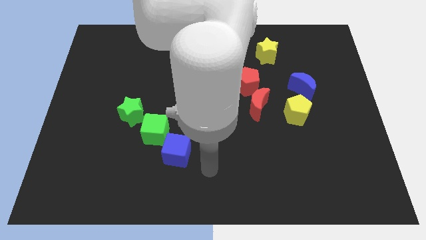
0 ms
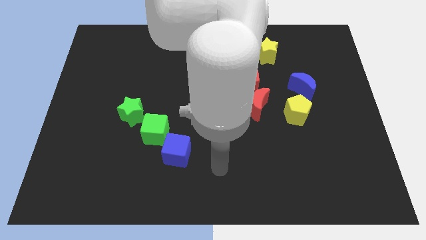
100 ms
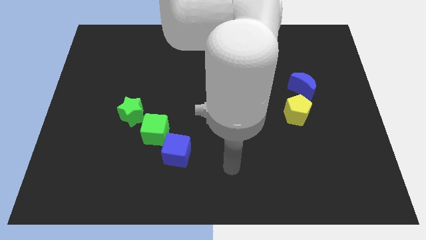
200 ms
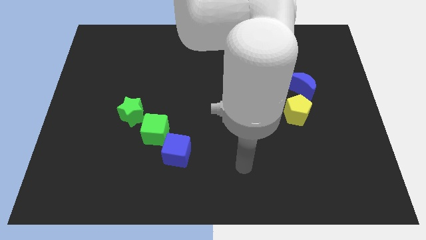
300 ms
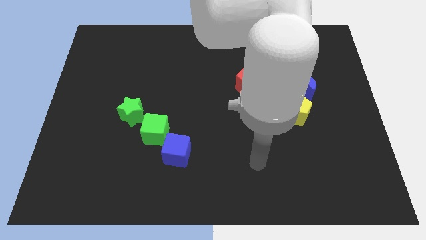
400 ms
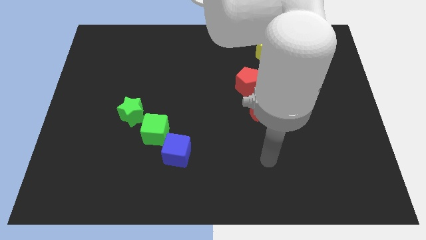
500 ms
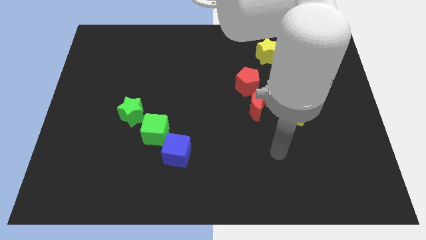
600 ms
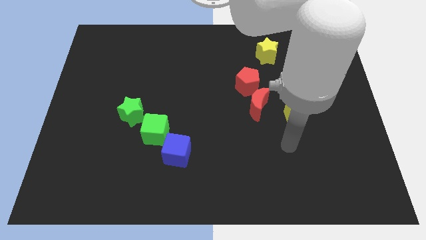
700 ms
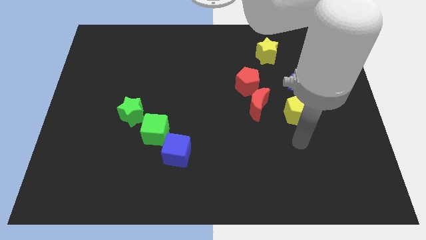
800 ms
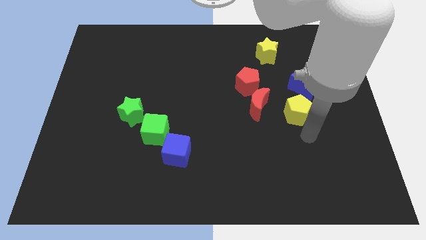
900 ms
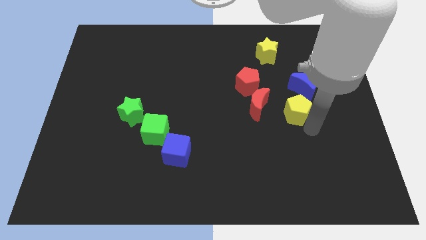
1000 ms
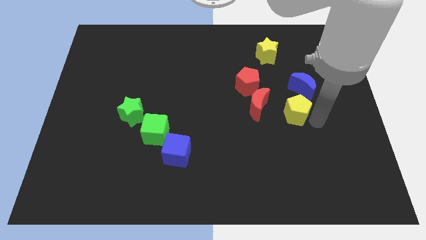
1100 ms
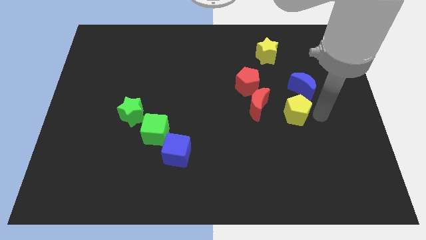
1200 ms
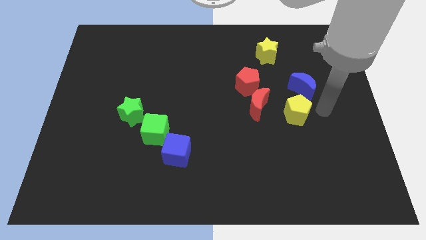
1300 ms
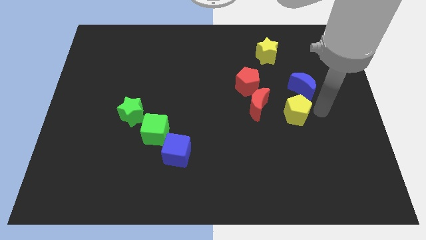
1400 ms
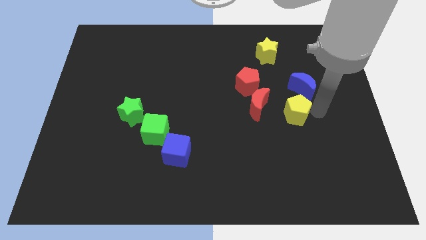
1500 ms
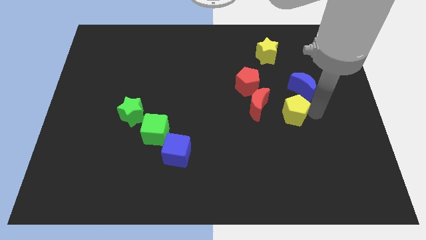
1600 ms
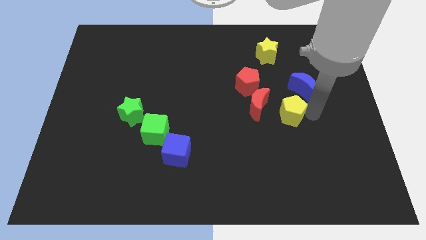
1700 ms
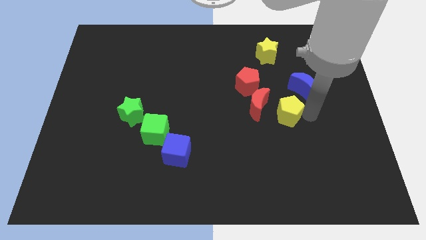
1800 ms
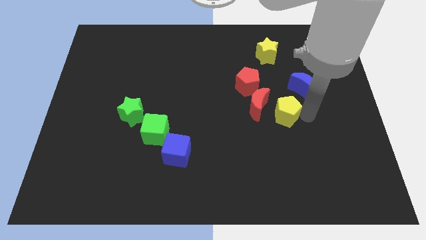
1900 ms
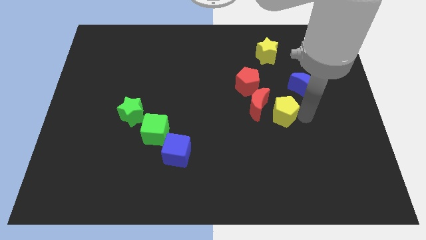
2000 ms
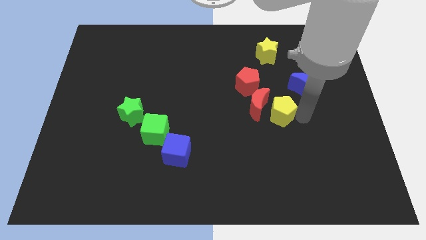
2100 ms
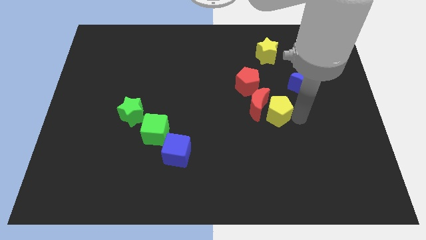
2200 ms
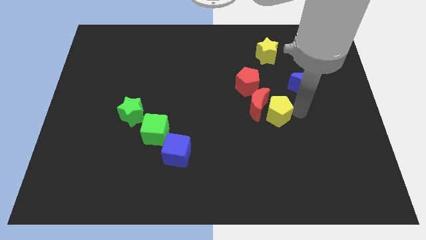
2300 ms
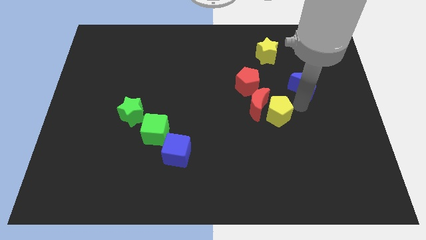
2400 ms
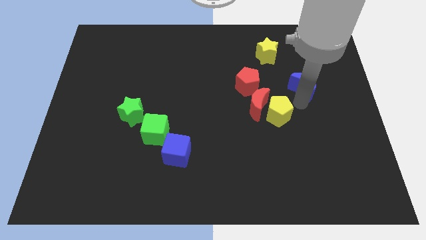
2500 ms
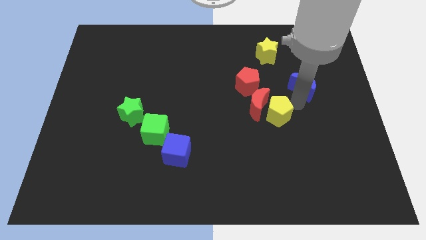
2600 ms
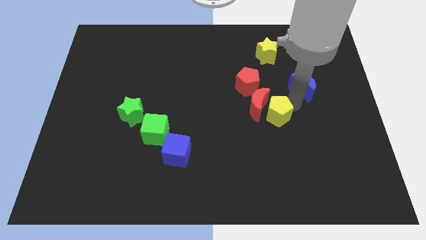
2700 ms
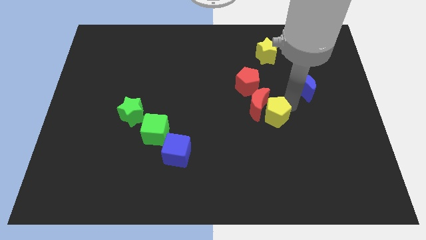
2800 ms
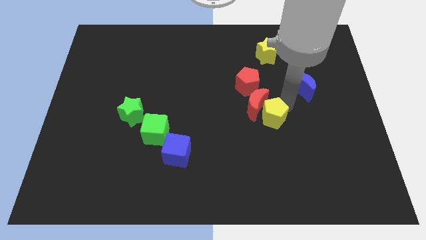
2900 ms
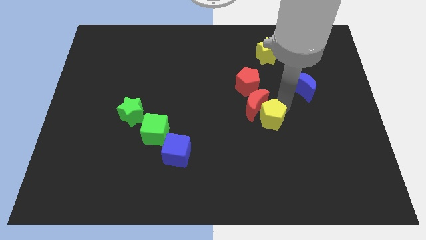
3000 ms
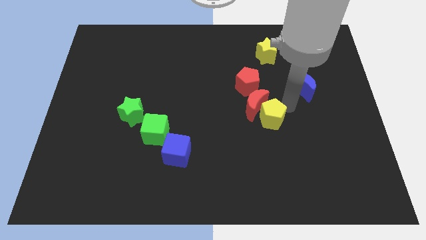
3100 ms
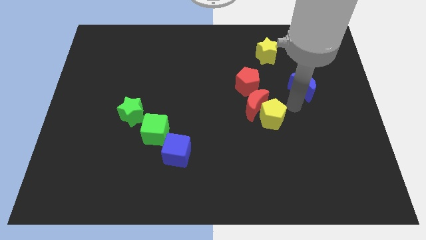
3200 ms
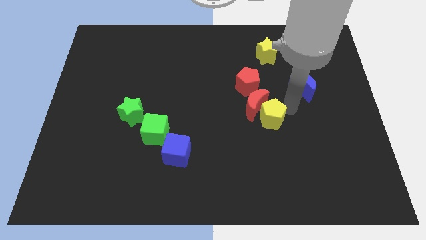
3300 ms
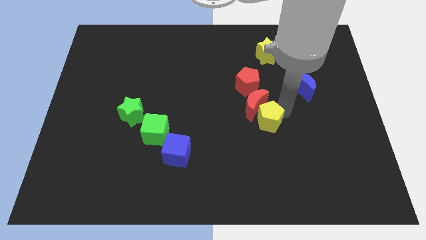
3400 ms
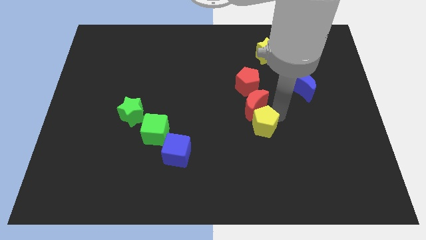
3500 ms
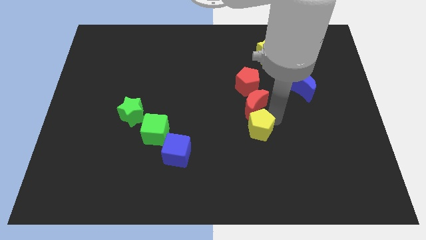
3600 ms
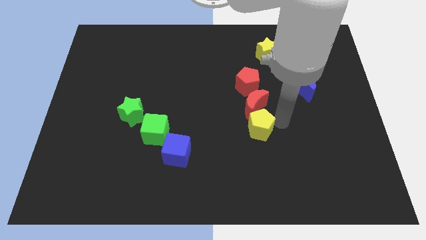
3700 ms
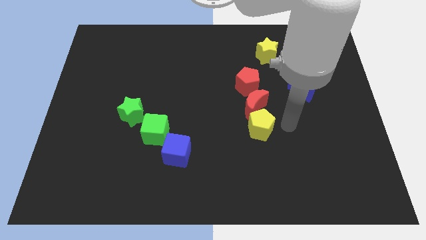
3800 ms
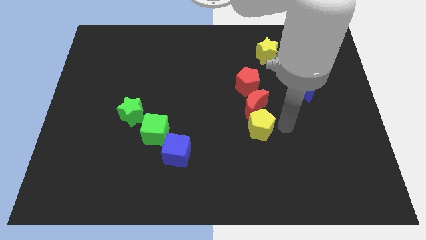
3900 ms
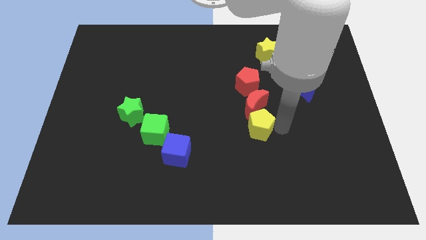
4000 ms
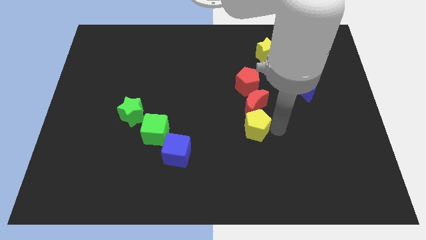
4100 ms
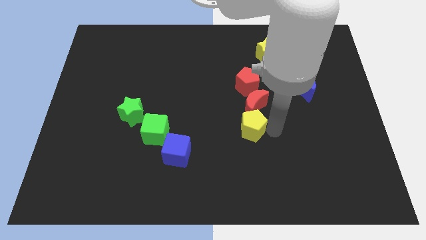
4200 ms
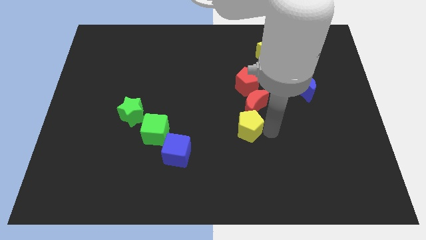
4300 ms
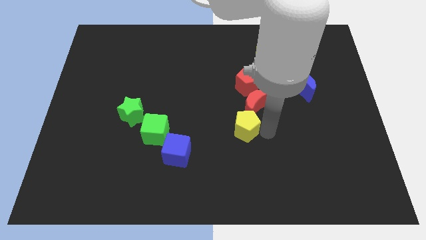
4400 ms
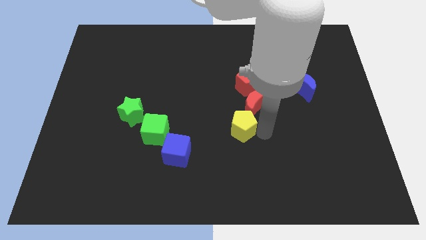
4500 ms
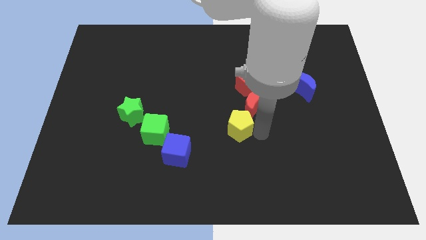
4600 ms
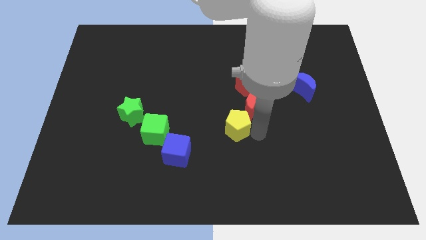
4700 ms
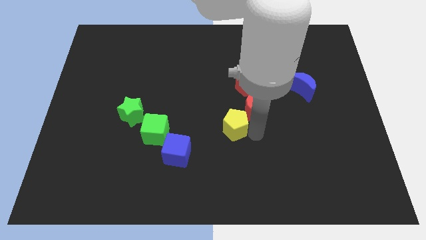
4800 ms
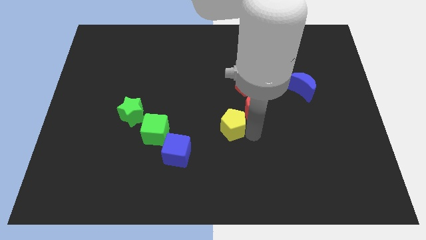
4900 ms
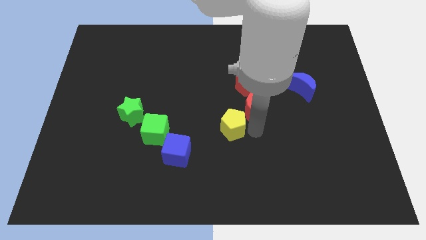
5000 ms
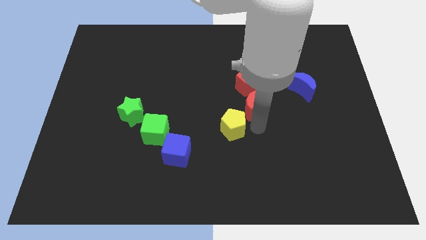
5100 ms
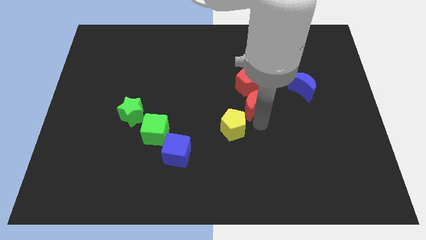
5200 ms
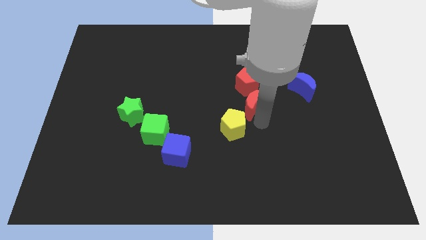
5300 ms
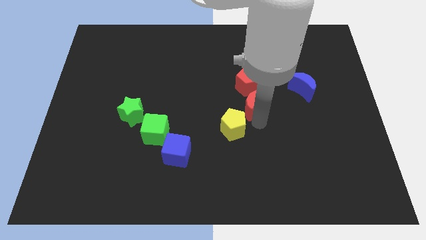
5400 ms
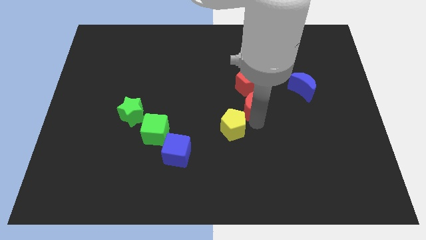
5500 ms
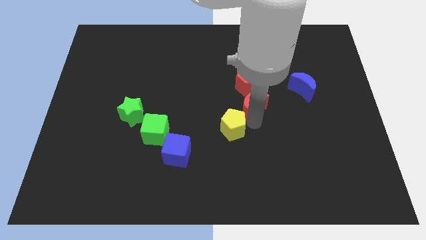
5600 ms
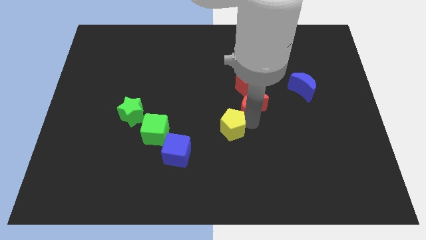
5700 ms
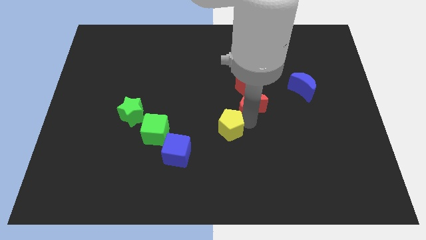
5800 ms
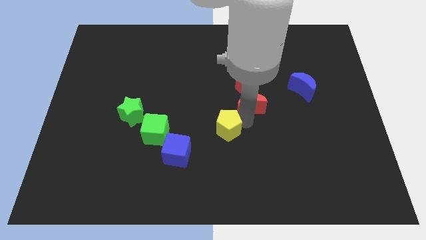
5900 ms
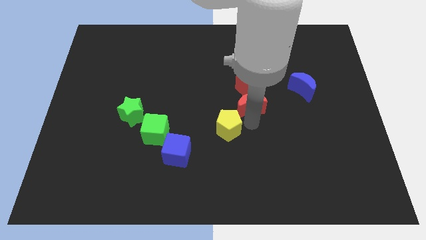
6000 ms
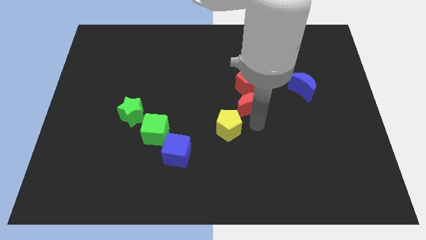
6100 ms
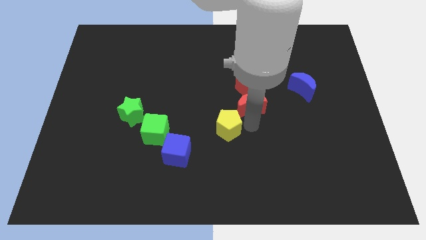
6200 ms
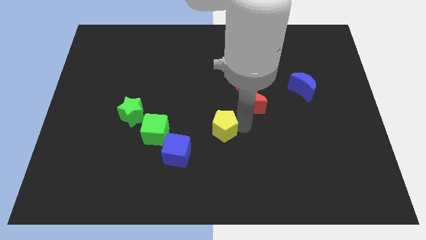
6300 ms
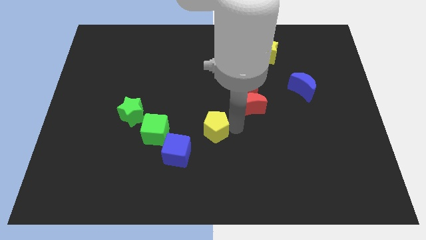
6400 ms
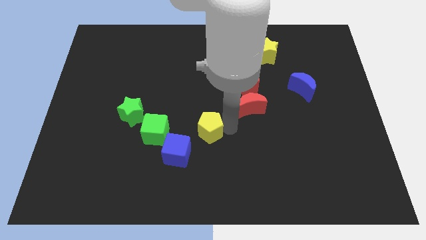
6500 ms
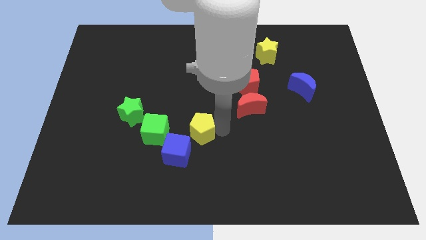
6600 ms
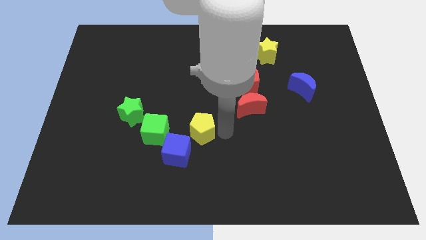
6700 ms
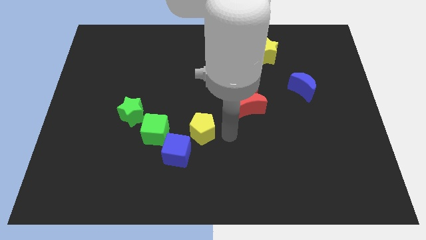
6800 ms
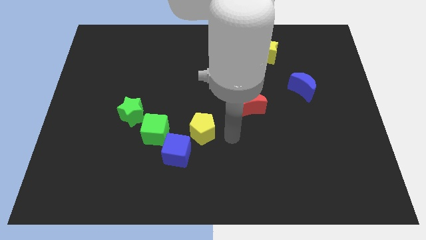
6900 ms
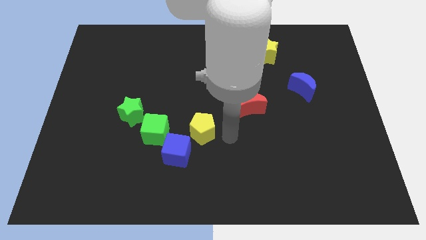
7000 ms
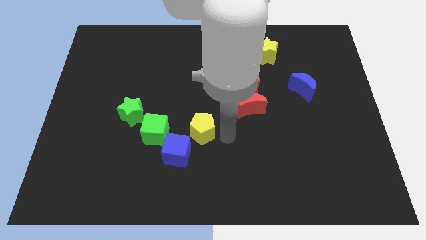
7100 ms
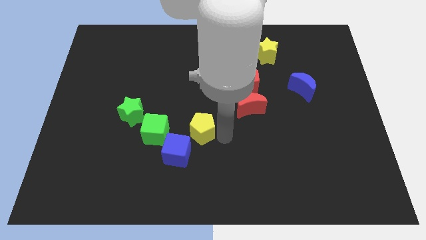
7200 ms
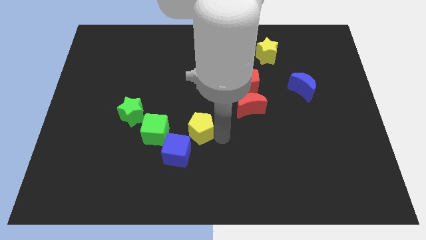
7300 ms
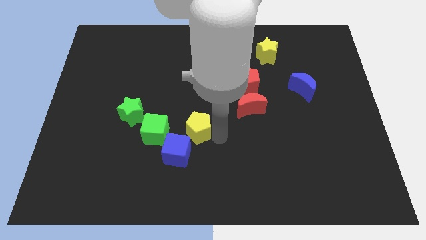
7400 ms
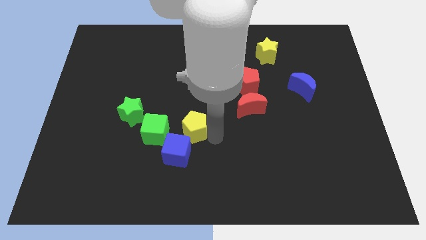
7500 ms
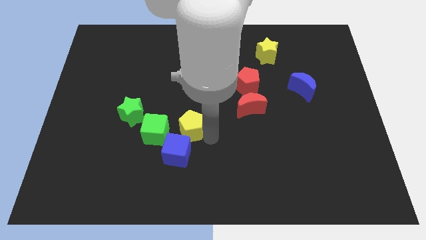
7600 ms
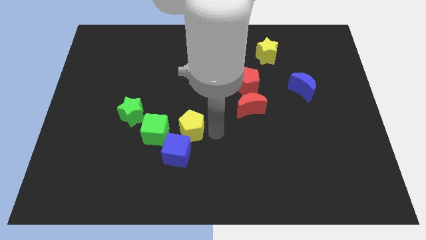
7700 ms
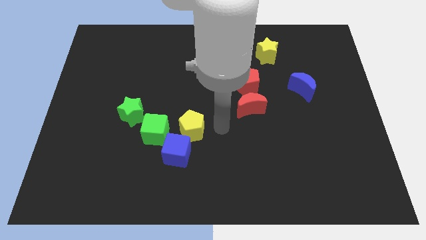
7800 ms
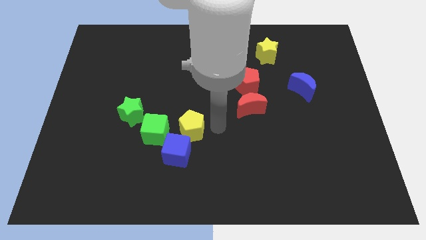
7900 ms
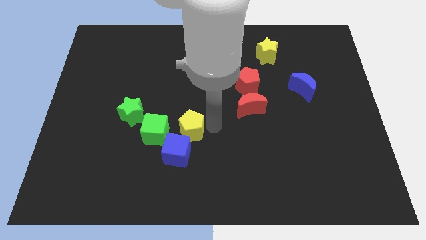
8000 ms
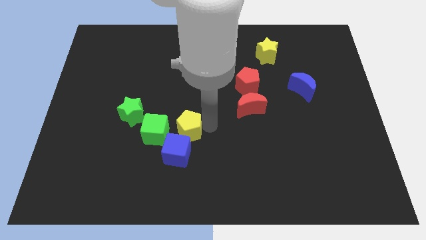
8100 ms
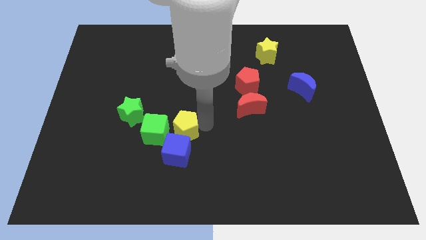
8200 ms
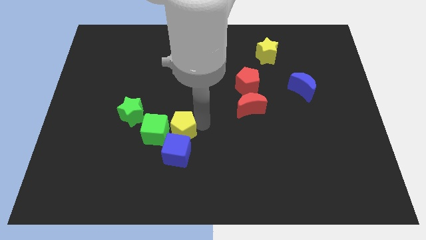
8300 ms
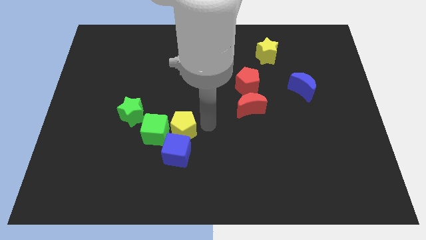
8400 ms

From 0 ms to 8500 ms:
push the yellow pentagon close to the green cube
